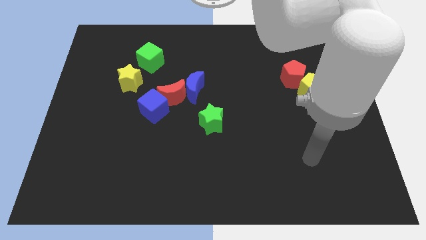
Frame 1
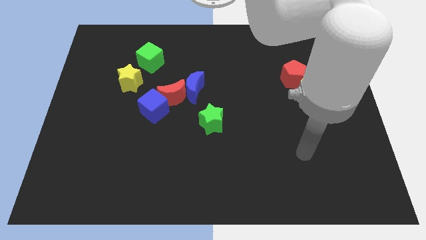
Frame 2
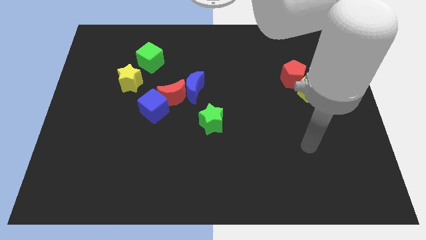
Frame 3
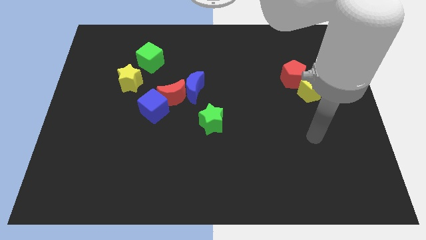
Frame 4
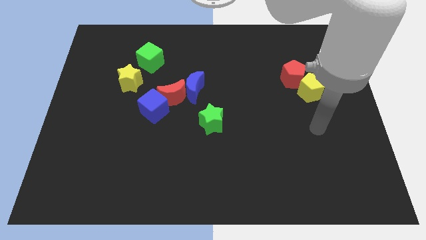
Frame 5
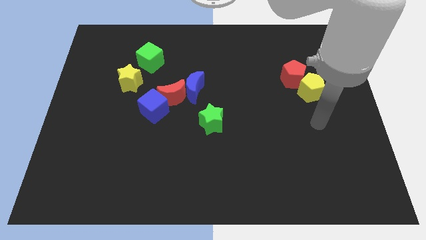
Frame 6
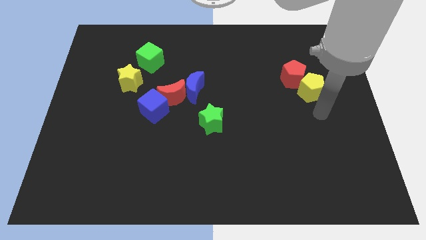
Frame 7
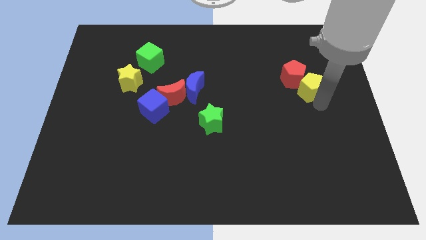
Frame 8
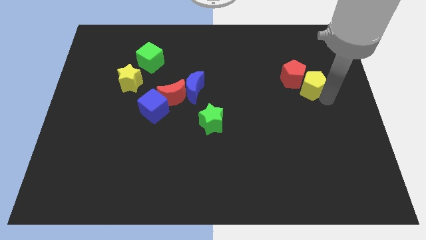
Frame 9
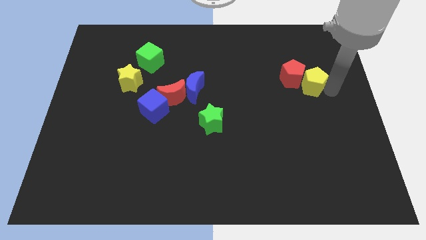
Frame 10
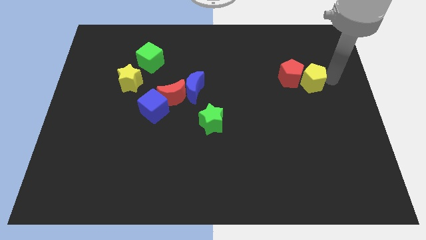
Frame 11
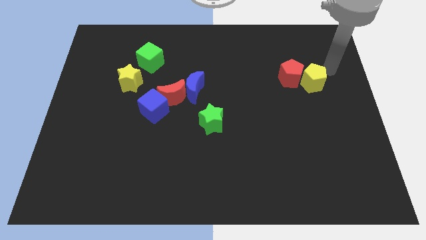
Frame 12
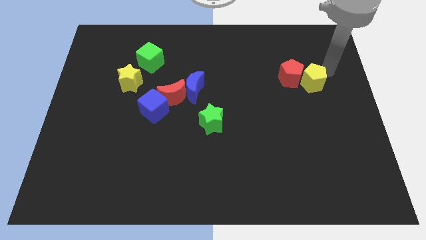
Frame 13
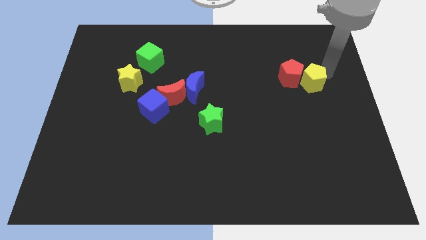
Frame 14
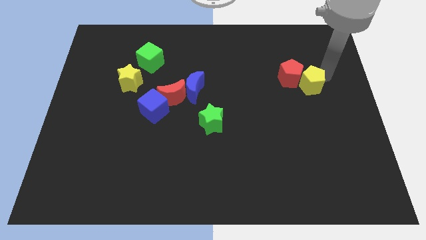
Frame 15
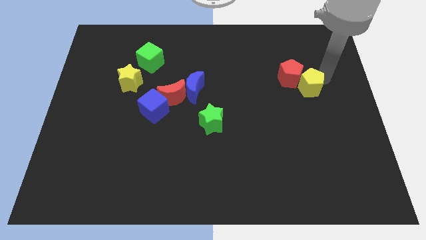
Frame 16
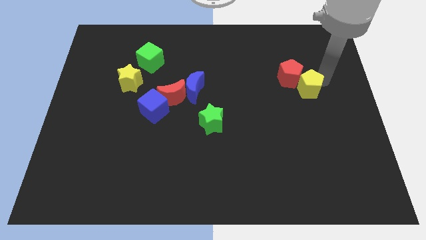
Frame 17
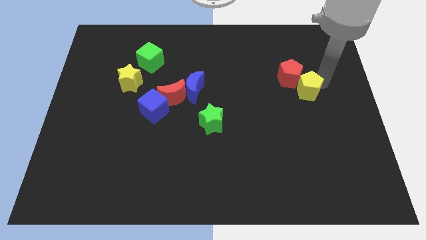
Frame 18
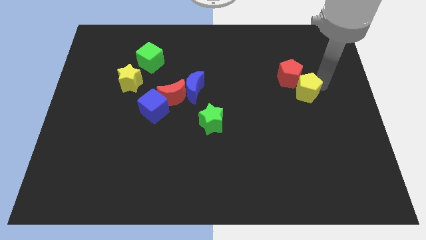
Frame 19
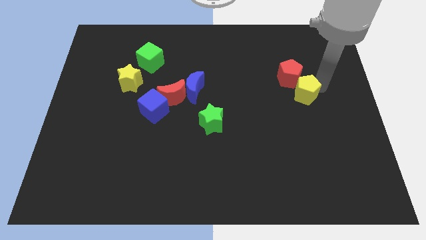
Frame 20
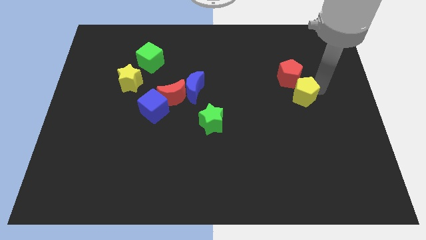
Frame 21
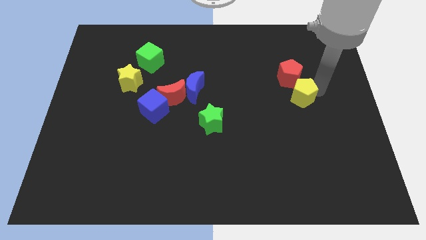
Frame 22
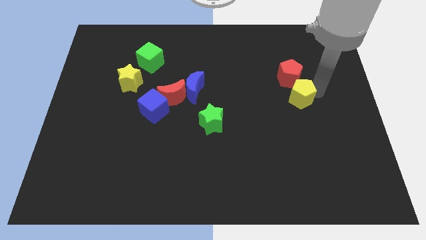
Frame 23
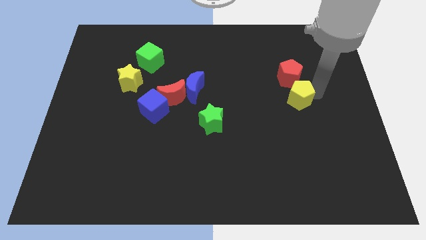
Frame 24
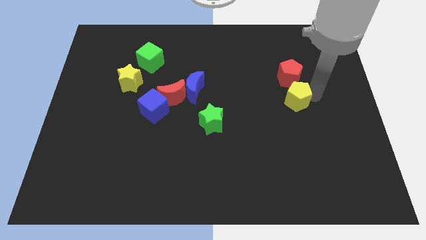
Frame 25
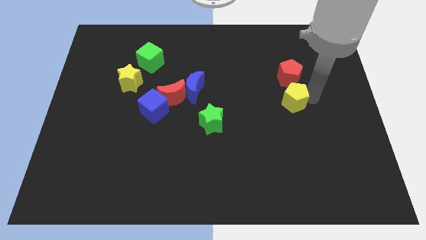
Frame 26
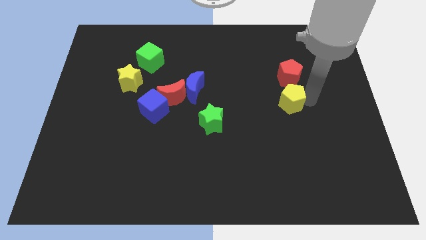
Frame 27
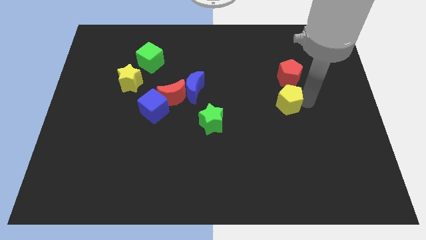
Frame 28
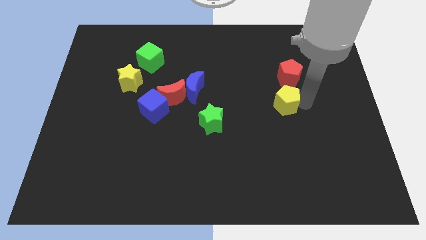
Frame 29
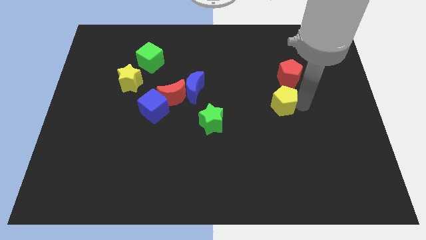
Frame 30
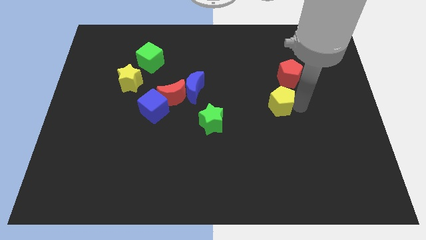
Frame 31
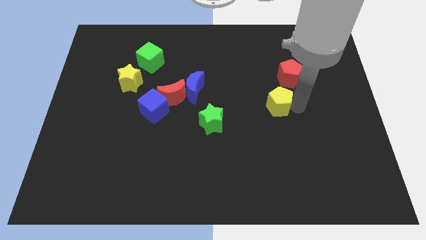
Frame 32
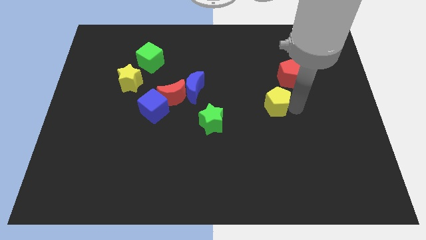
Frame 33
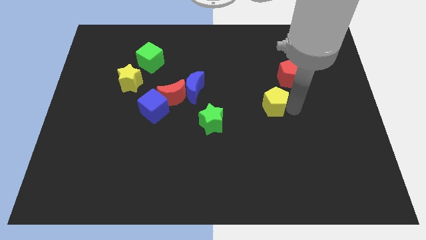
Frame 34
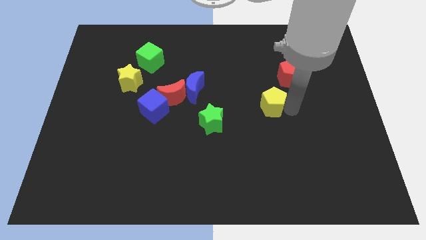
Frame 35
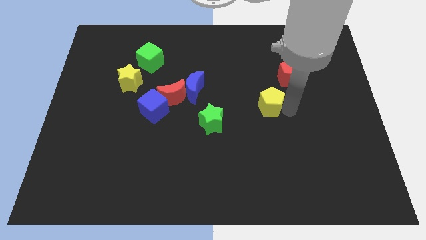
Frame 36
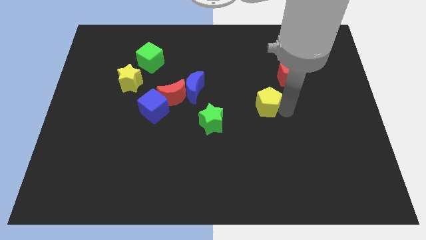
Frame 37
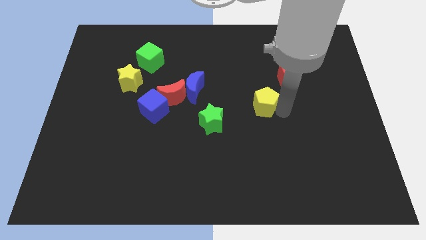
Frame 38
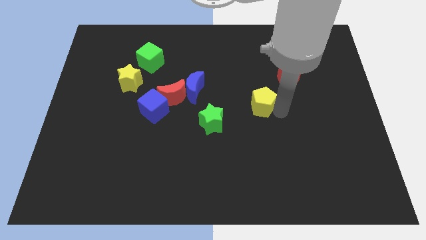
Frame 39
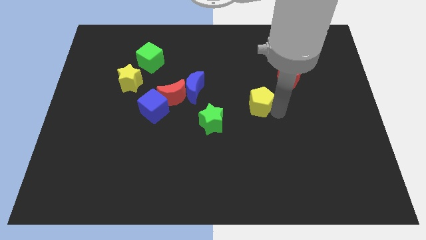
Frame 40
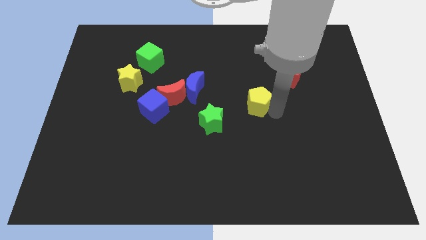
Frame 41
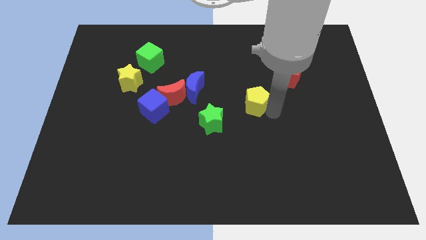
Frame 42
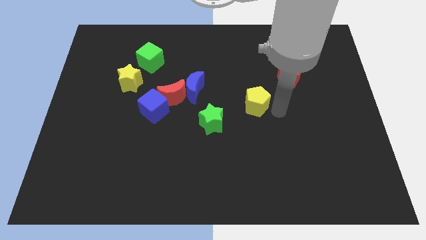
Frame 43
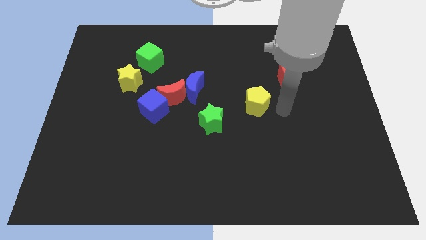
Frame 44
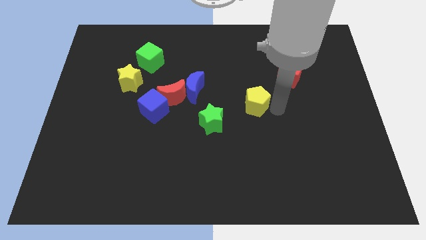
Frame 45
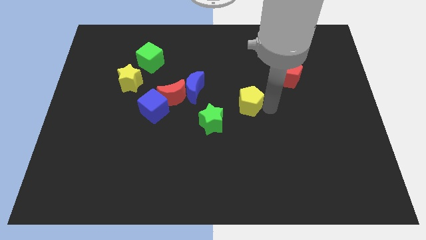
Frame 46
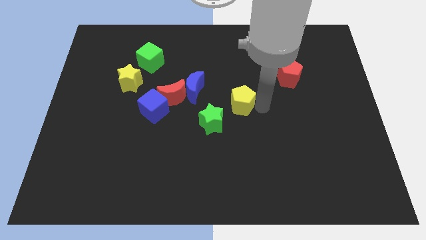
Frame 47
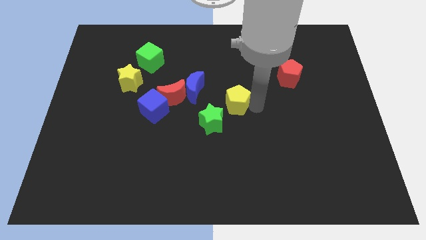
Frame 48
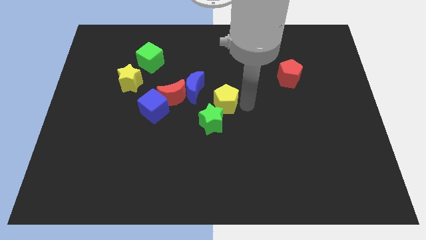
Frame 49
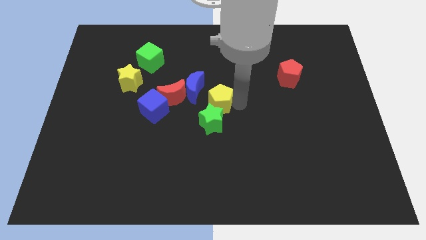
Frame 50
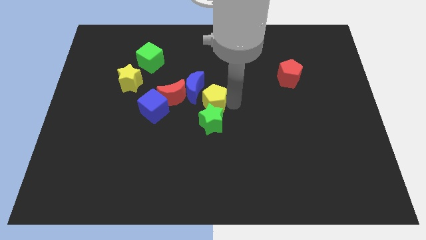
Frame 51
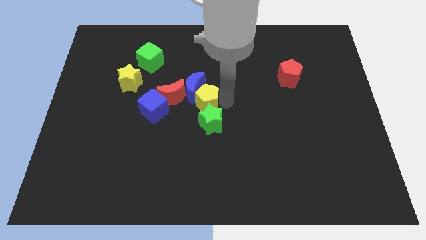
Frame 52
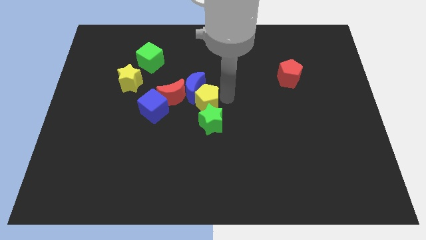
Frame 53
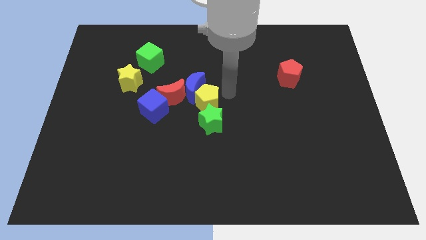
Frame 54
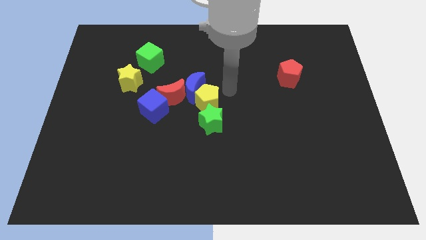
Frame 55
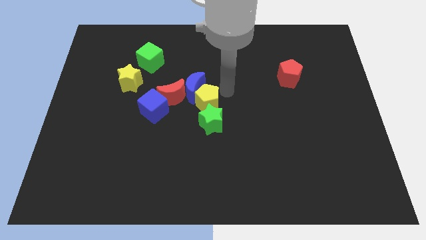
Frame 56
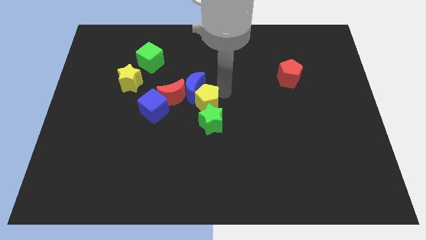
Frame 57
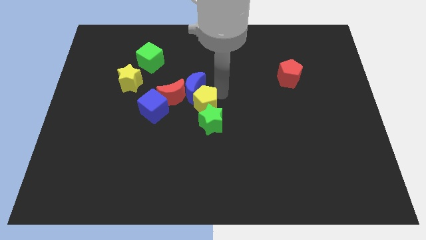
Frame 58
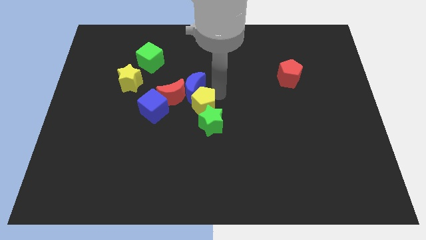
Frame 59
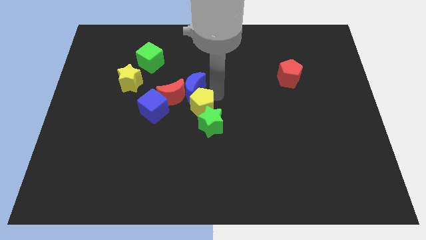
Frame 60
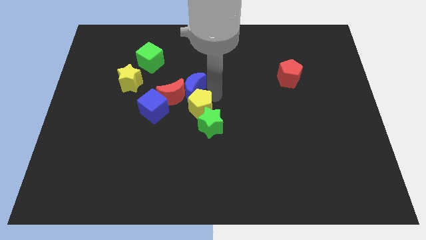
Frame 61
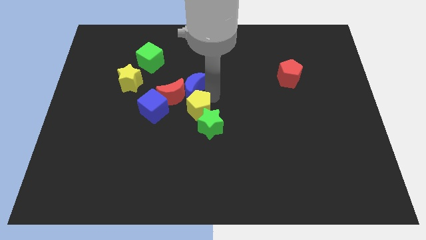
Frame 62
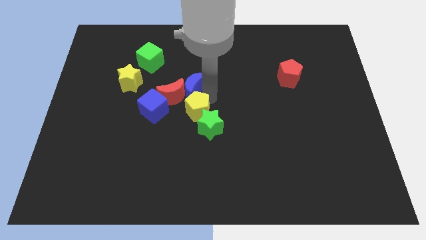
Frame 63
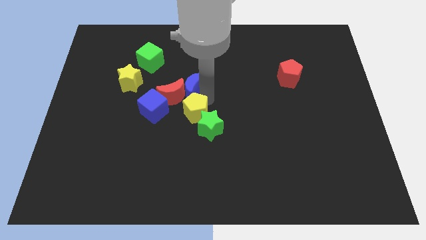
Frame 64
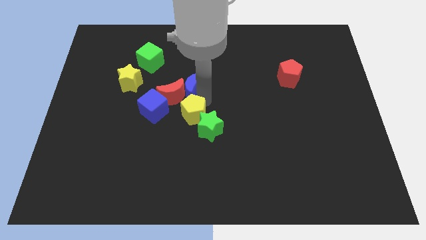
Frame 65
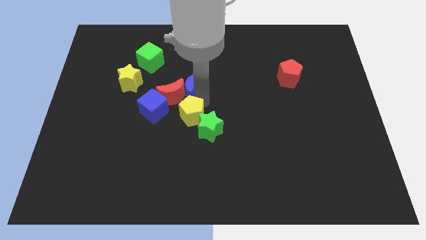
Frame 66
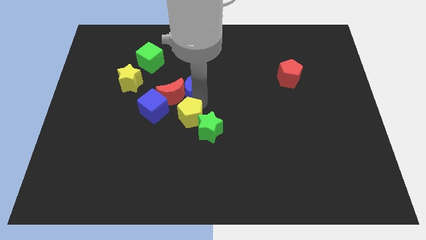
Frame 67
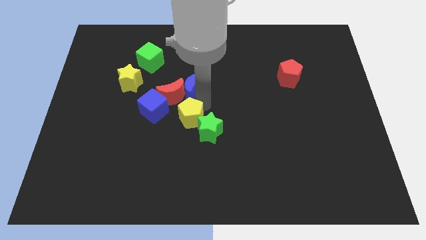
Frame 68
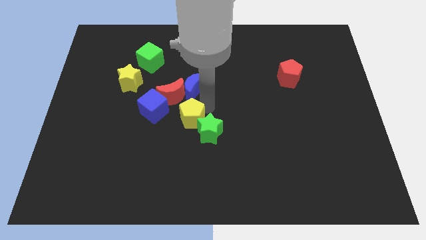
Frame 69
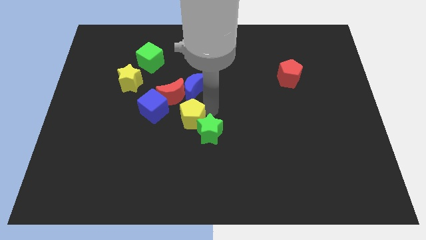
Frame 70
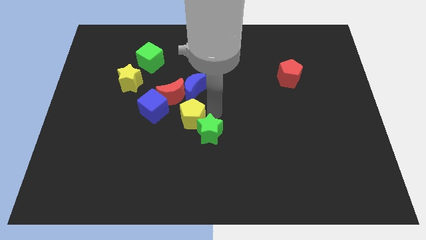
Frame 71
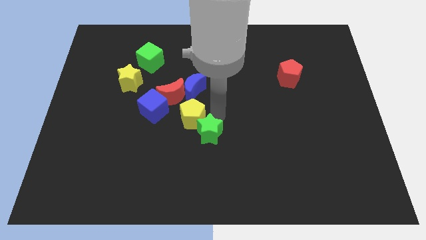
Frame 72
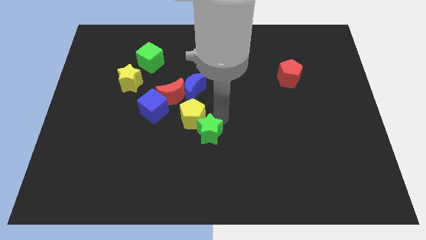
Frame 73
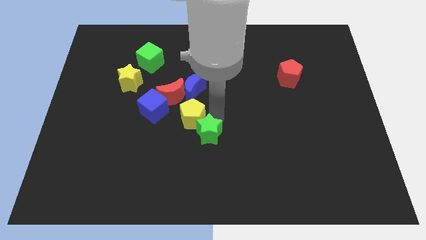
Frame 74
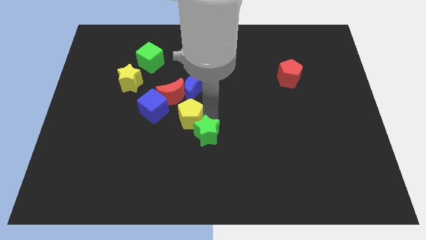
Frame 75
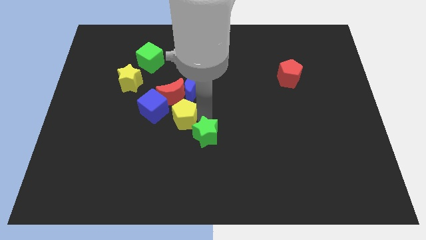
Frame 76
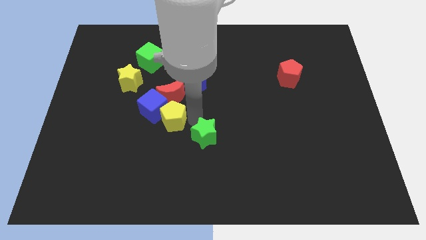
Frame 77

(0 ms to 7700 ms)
put the yellow pentagon close to the blue cube
